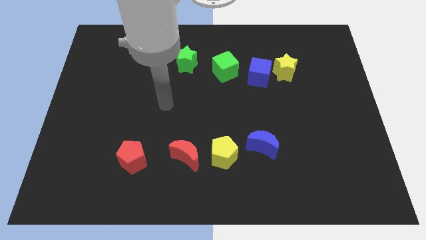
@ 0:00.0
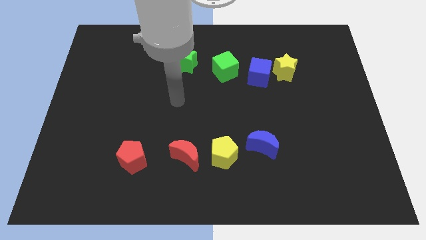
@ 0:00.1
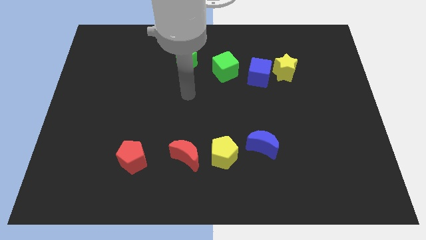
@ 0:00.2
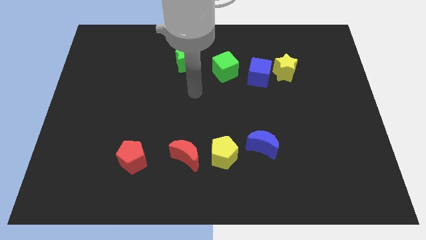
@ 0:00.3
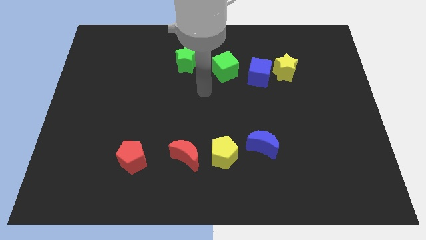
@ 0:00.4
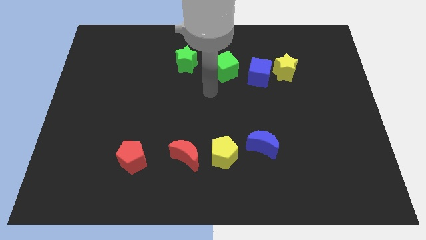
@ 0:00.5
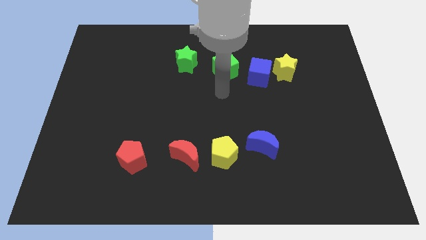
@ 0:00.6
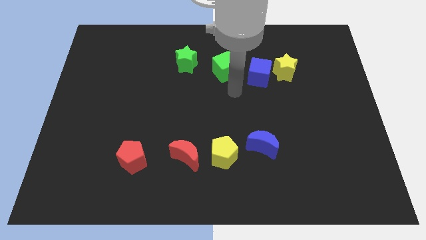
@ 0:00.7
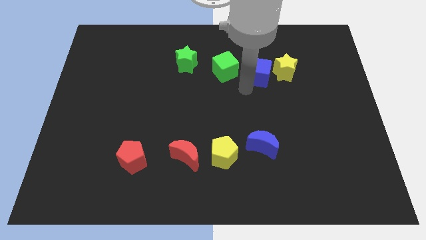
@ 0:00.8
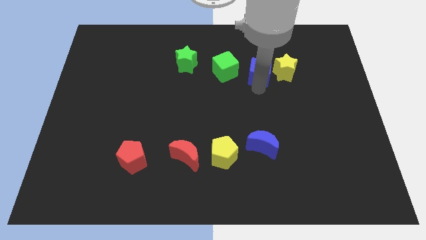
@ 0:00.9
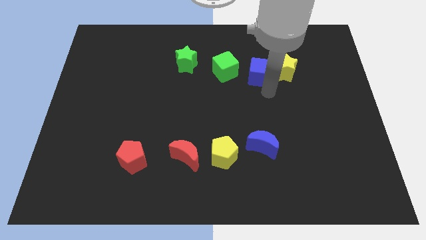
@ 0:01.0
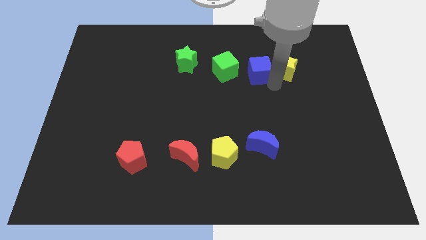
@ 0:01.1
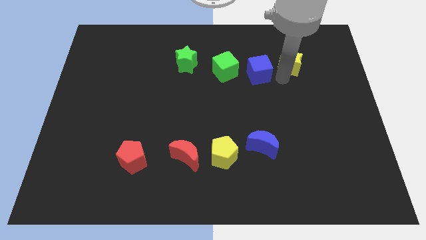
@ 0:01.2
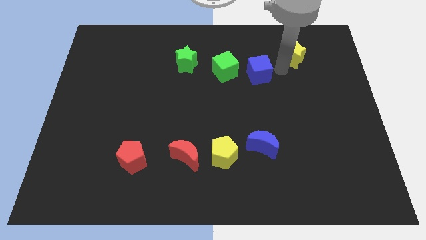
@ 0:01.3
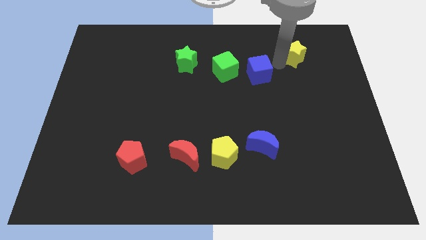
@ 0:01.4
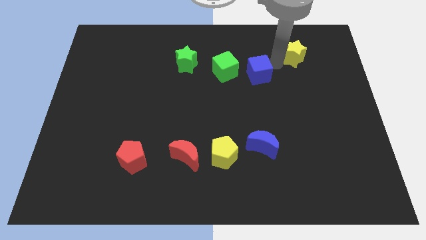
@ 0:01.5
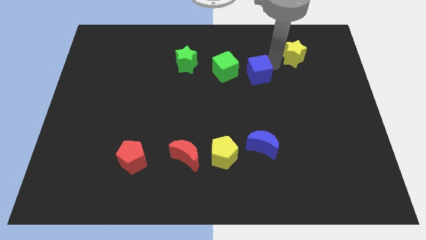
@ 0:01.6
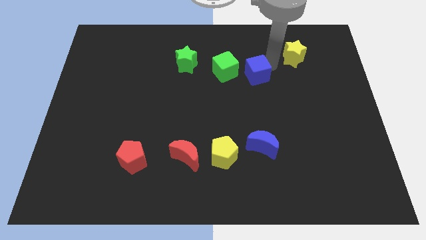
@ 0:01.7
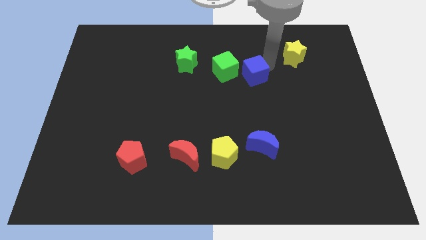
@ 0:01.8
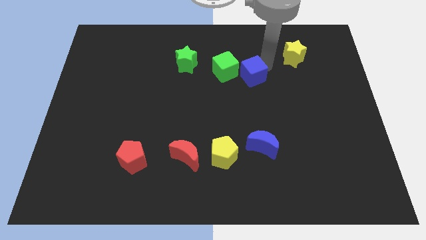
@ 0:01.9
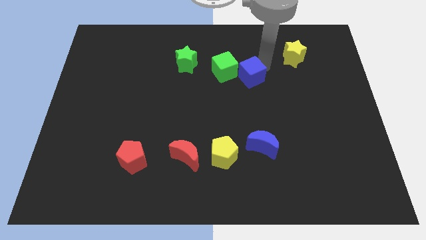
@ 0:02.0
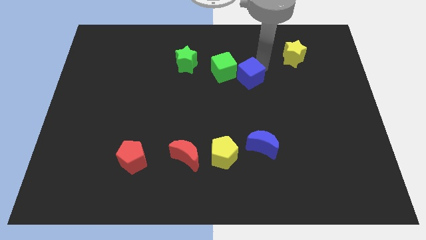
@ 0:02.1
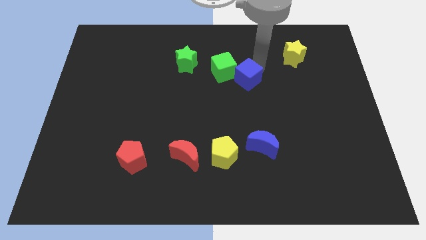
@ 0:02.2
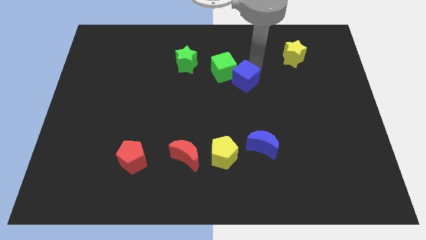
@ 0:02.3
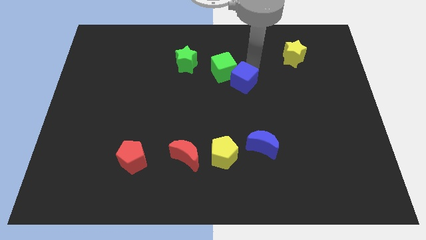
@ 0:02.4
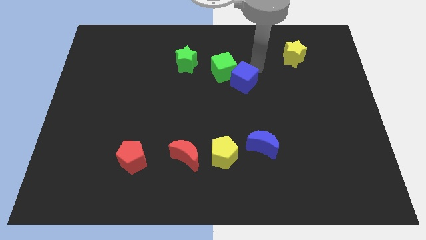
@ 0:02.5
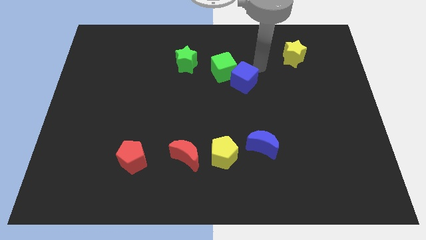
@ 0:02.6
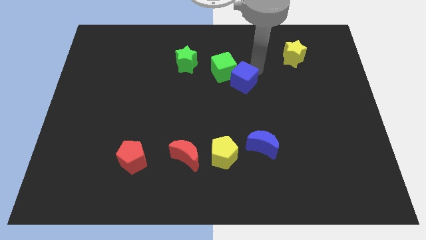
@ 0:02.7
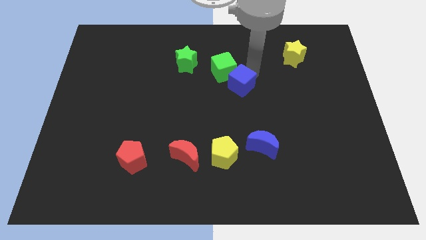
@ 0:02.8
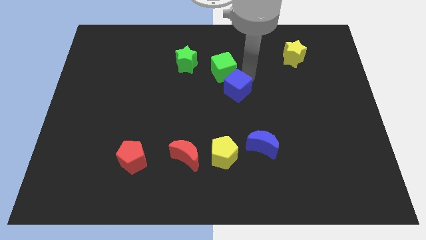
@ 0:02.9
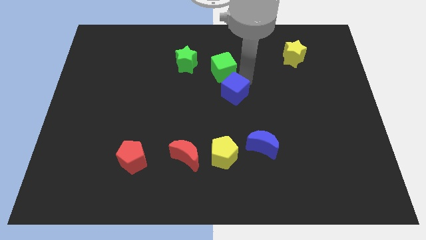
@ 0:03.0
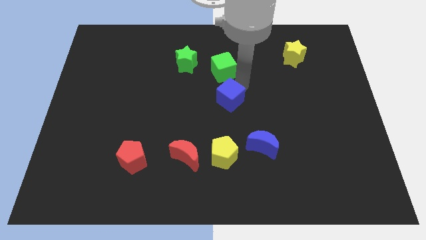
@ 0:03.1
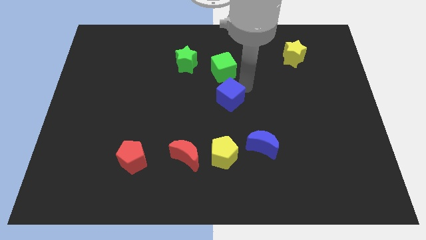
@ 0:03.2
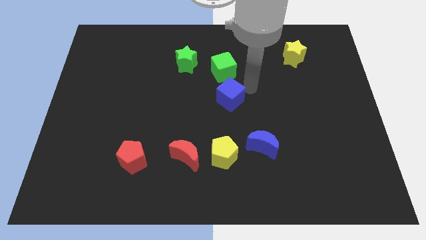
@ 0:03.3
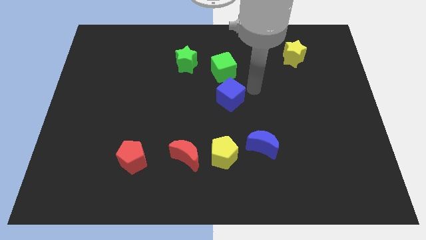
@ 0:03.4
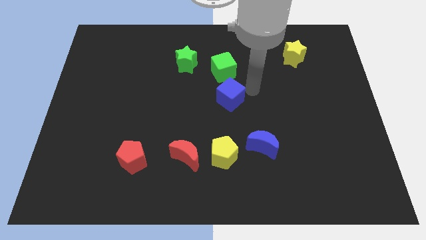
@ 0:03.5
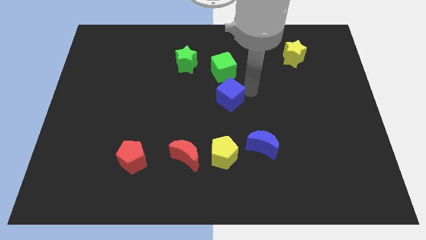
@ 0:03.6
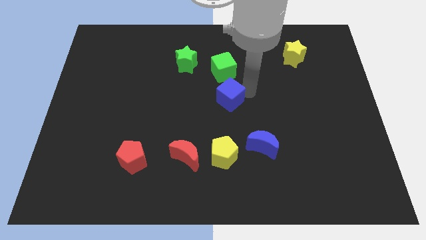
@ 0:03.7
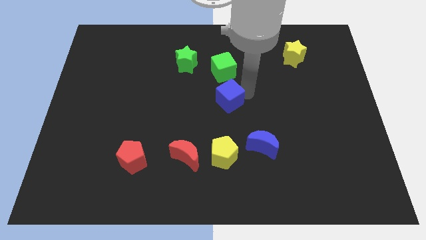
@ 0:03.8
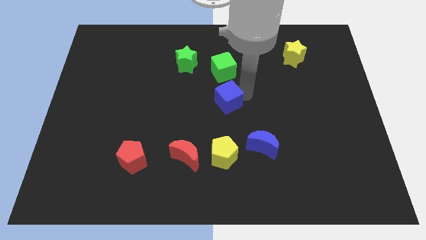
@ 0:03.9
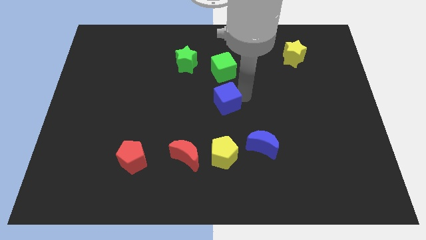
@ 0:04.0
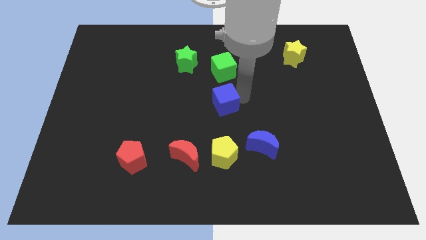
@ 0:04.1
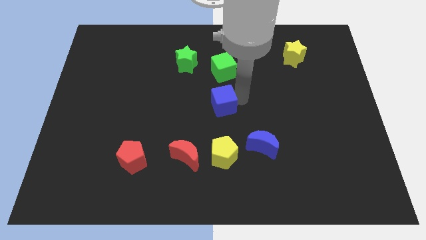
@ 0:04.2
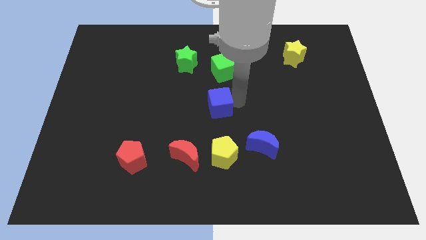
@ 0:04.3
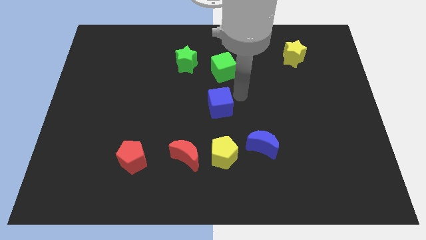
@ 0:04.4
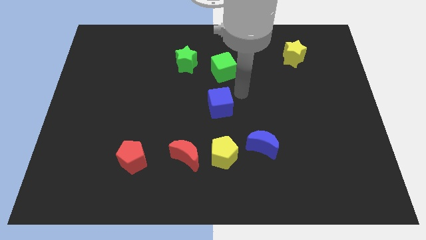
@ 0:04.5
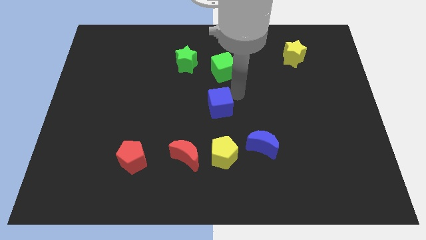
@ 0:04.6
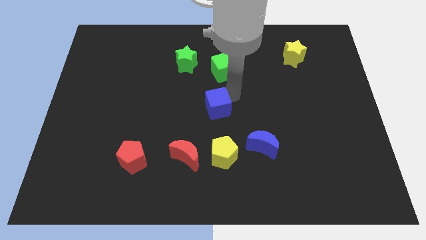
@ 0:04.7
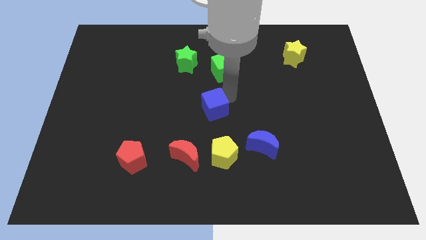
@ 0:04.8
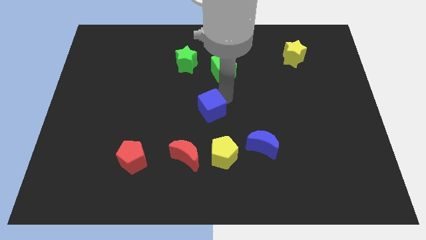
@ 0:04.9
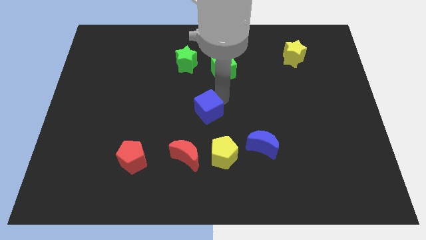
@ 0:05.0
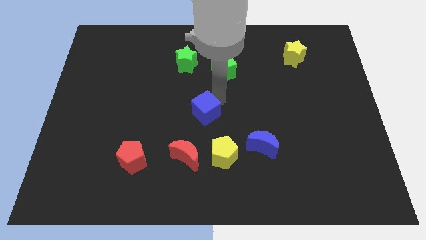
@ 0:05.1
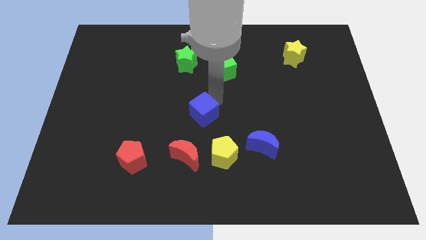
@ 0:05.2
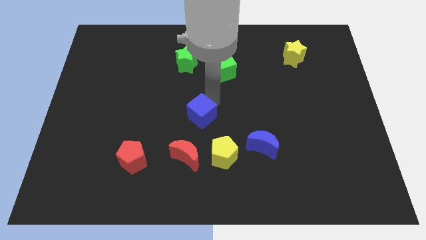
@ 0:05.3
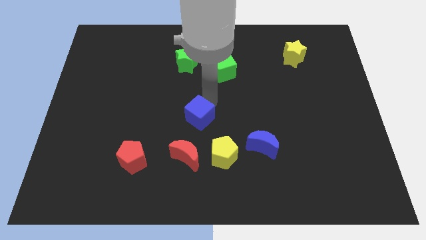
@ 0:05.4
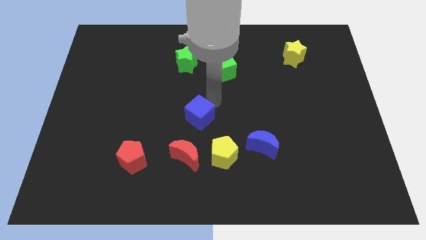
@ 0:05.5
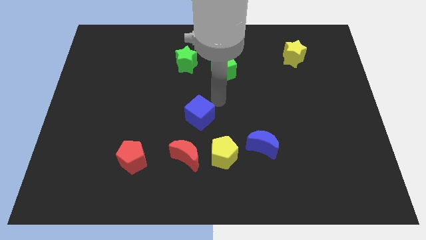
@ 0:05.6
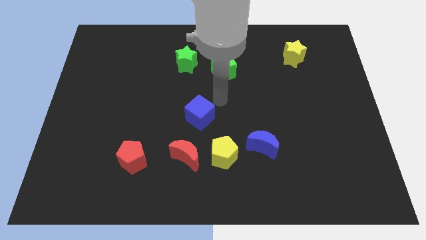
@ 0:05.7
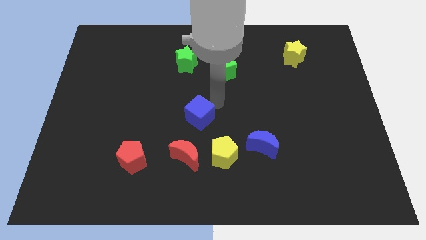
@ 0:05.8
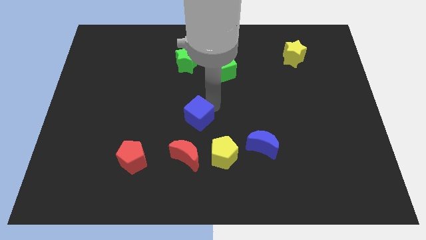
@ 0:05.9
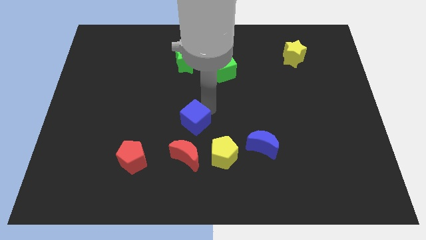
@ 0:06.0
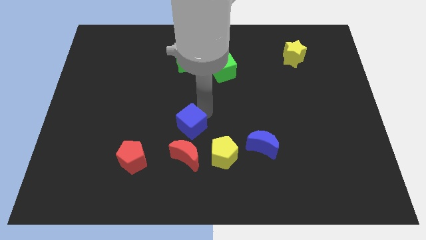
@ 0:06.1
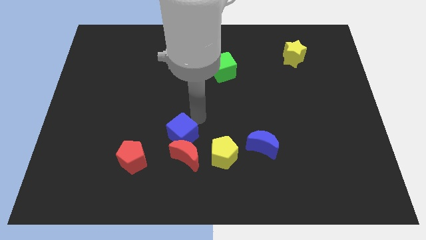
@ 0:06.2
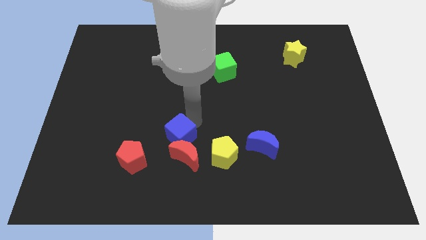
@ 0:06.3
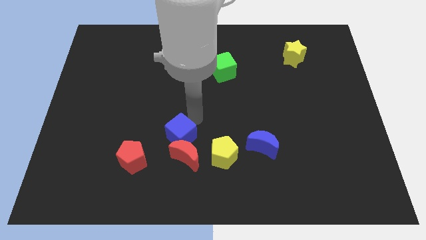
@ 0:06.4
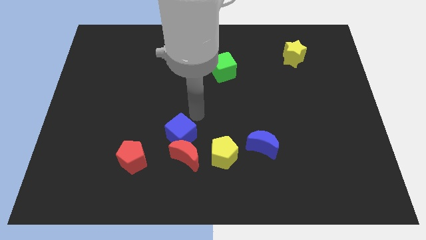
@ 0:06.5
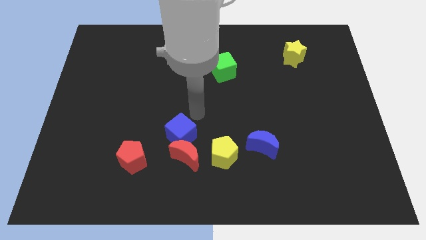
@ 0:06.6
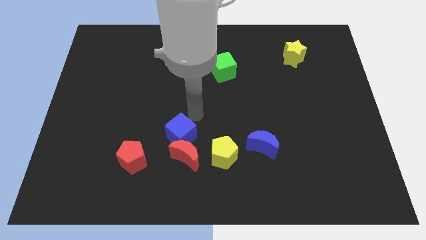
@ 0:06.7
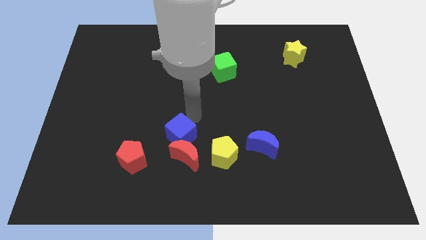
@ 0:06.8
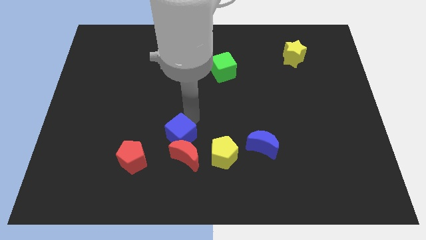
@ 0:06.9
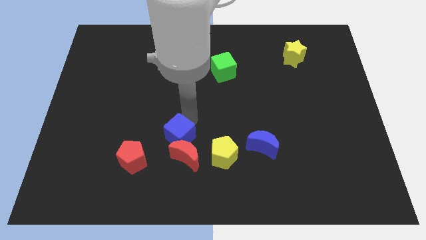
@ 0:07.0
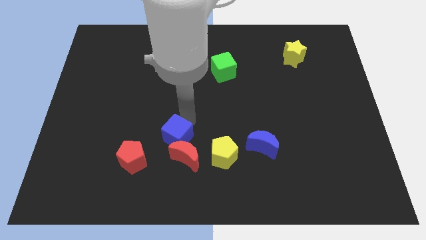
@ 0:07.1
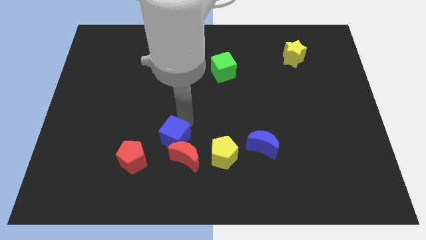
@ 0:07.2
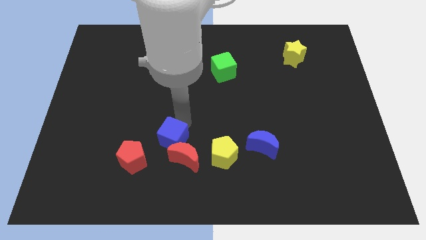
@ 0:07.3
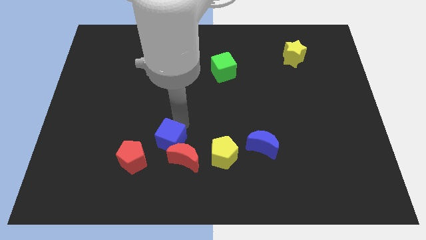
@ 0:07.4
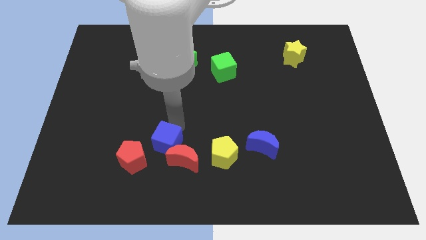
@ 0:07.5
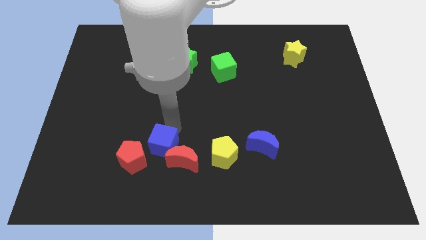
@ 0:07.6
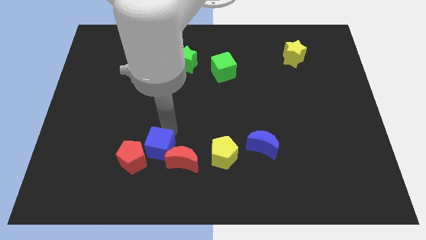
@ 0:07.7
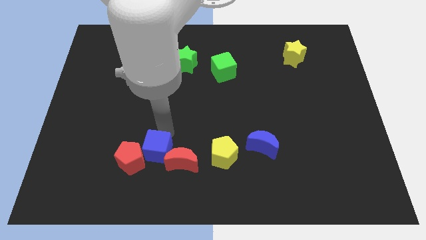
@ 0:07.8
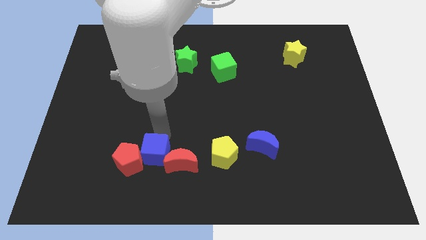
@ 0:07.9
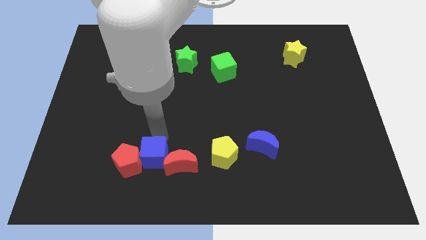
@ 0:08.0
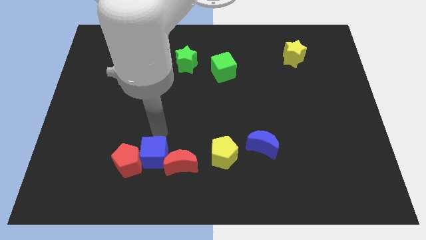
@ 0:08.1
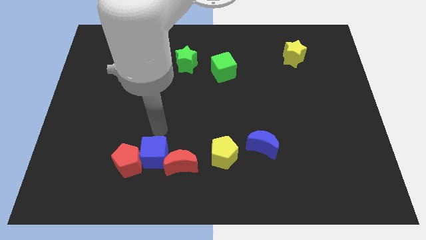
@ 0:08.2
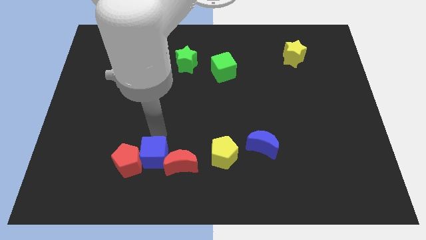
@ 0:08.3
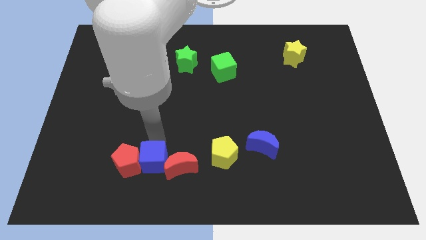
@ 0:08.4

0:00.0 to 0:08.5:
slide the blue cube diagonally down and to the right of the red pentagon
